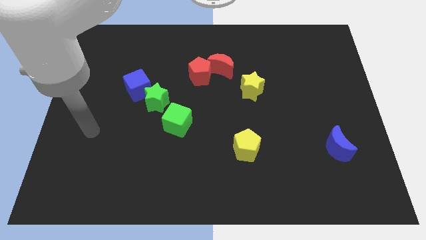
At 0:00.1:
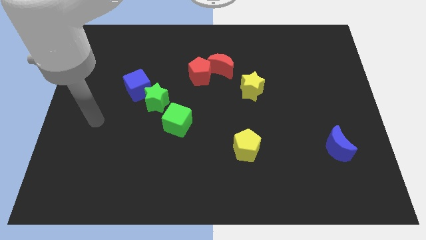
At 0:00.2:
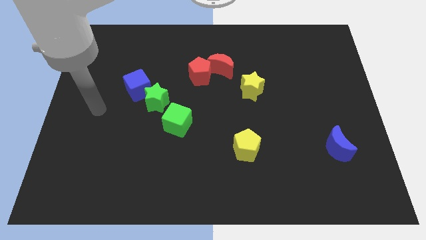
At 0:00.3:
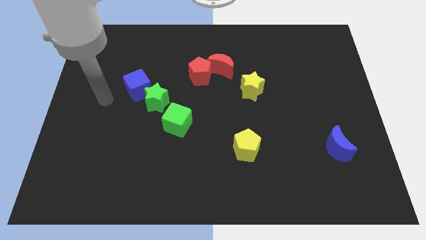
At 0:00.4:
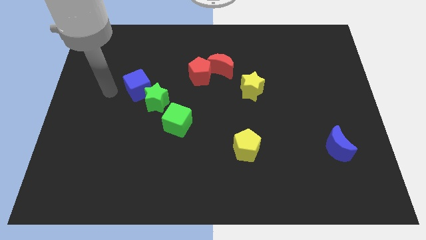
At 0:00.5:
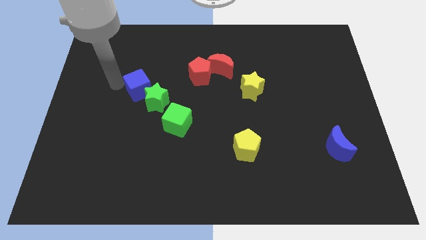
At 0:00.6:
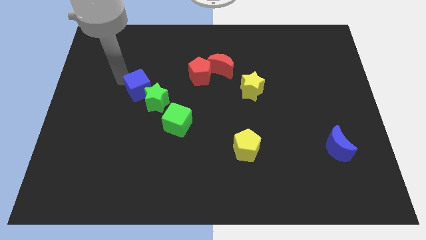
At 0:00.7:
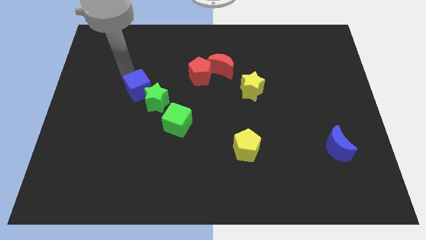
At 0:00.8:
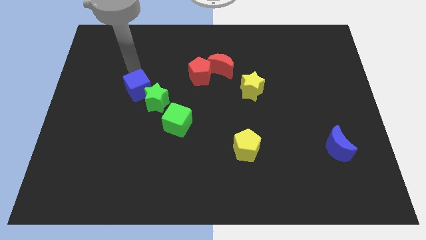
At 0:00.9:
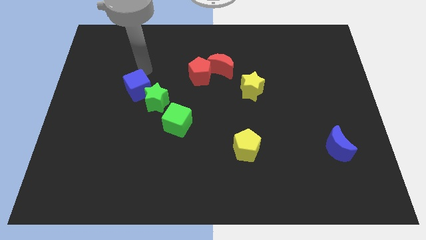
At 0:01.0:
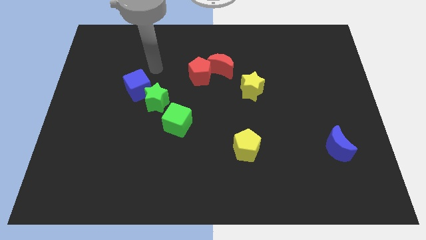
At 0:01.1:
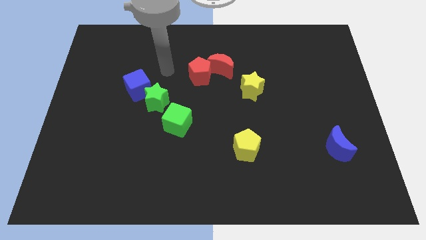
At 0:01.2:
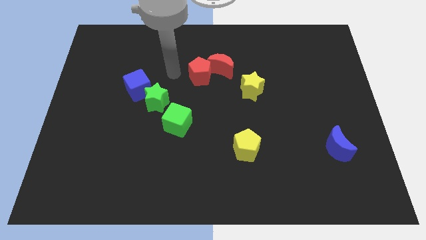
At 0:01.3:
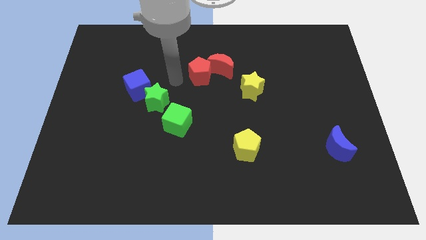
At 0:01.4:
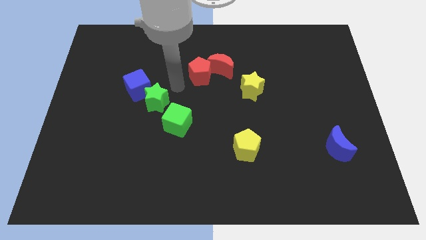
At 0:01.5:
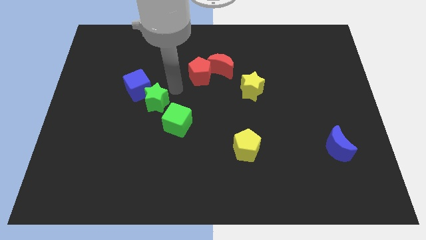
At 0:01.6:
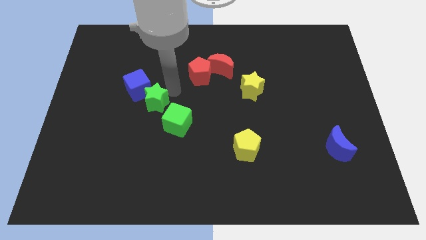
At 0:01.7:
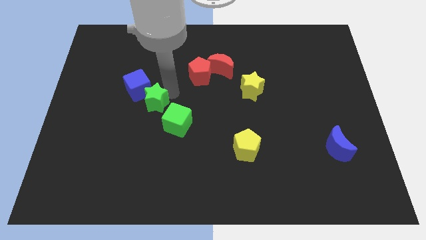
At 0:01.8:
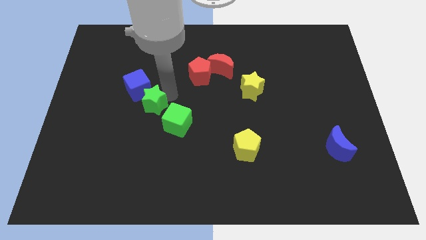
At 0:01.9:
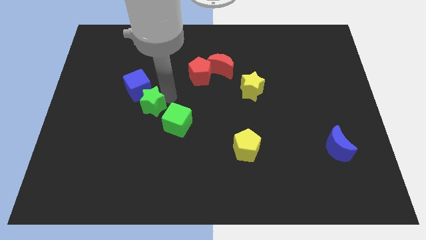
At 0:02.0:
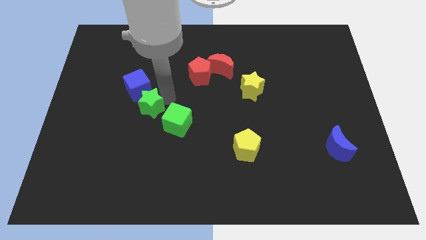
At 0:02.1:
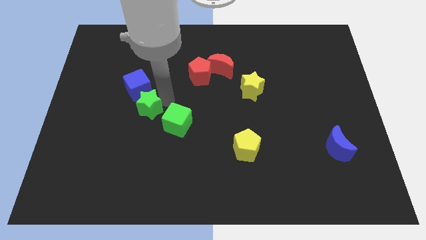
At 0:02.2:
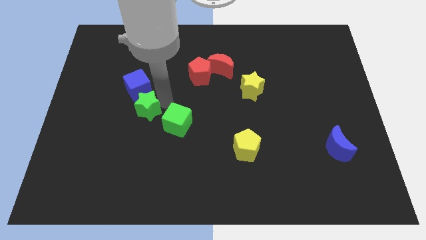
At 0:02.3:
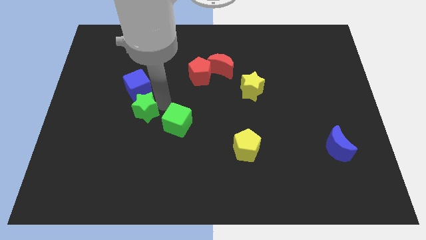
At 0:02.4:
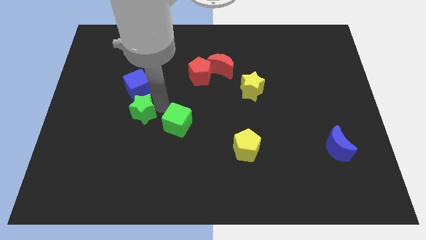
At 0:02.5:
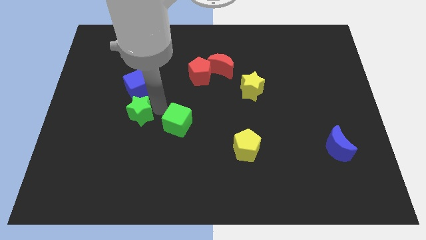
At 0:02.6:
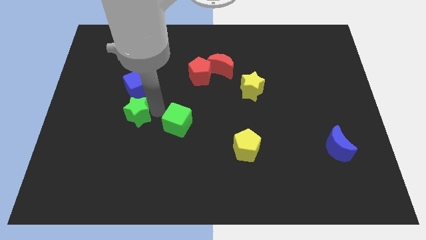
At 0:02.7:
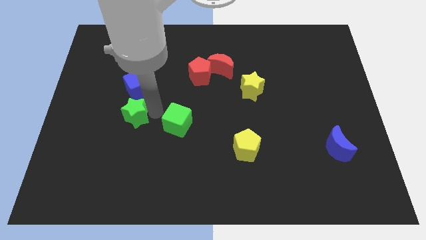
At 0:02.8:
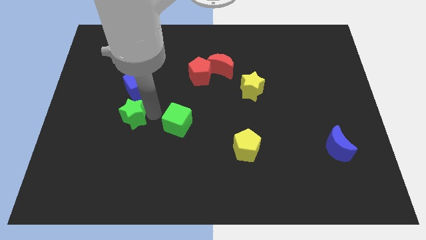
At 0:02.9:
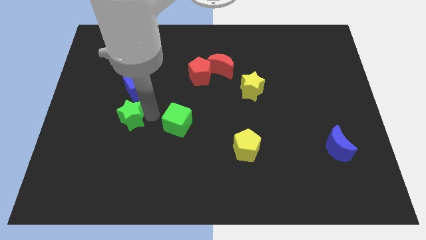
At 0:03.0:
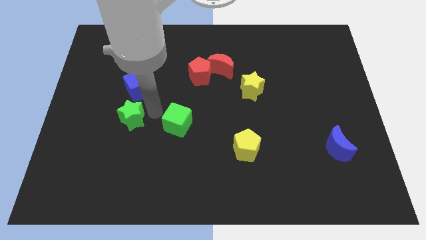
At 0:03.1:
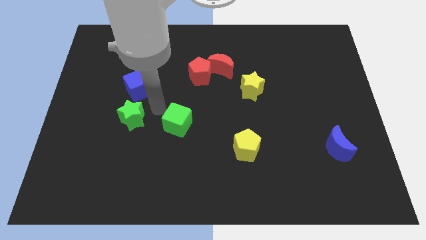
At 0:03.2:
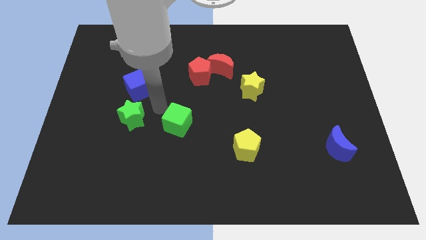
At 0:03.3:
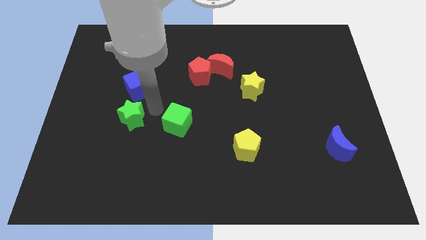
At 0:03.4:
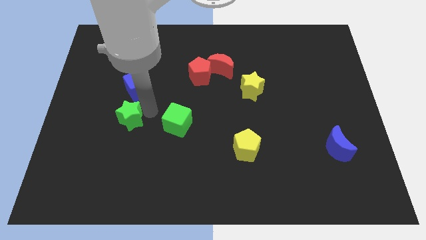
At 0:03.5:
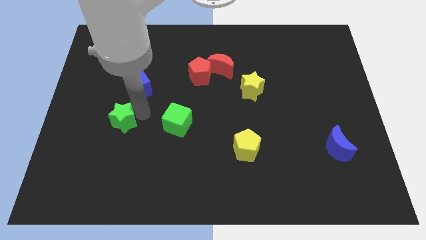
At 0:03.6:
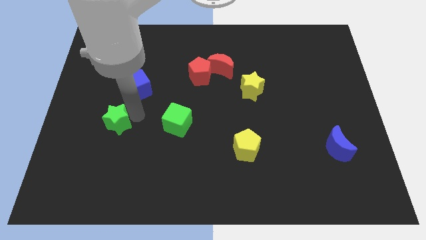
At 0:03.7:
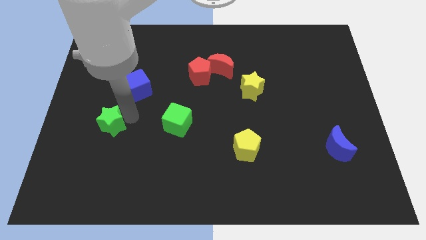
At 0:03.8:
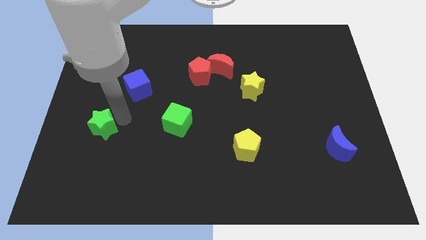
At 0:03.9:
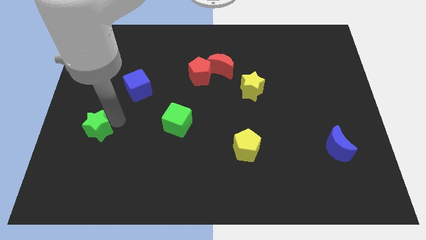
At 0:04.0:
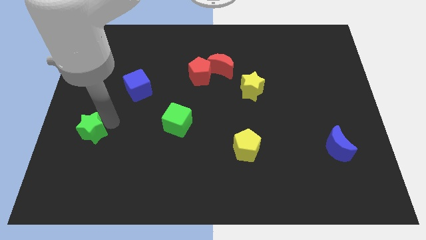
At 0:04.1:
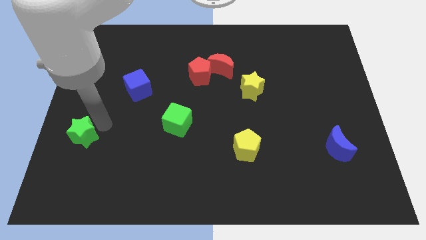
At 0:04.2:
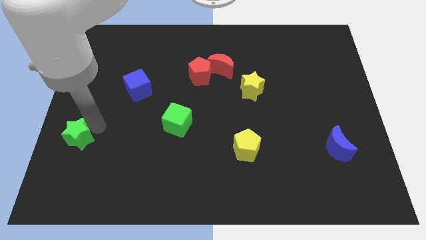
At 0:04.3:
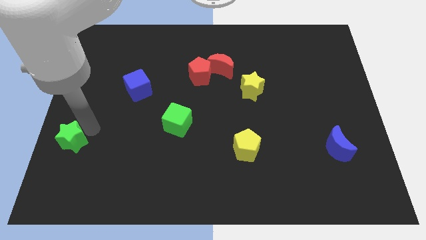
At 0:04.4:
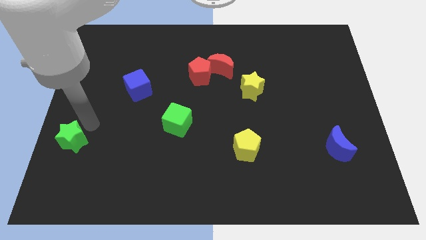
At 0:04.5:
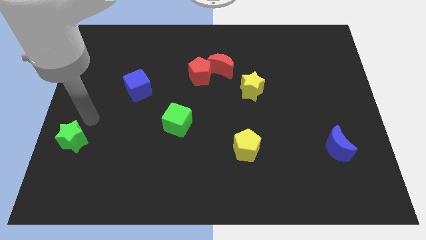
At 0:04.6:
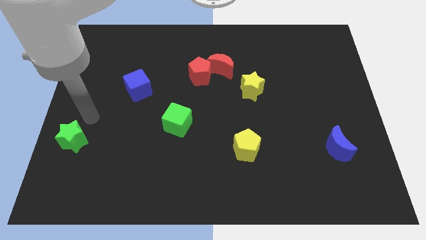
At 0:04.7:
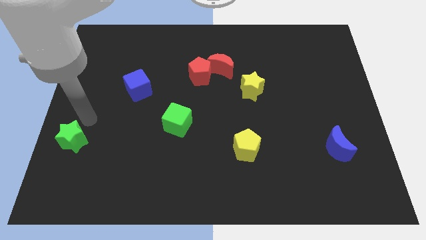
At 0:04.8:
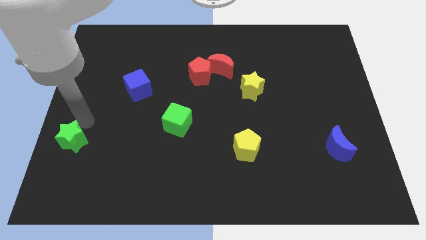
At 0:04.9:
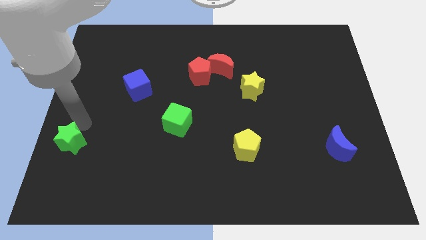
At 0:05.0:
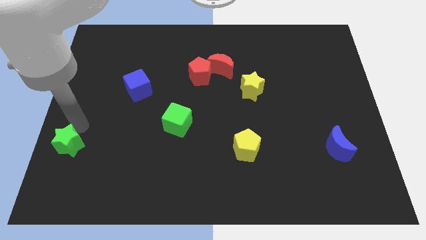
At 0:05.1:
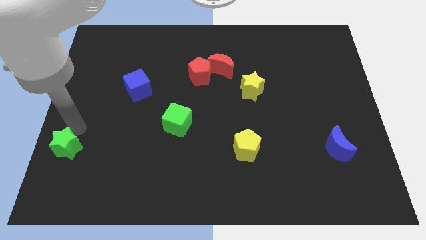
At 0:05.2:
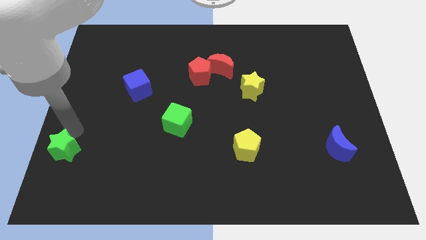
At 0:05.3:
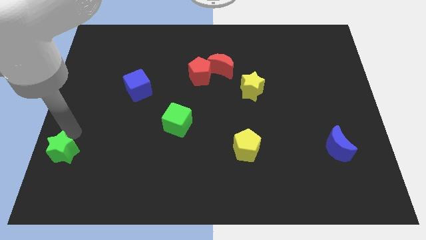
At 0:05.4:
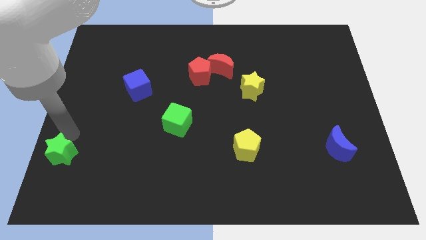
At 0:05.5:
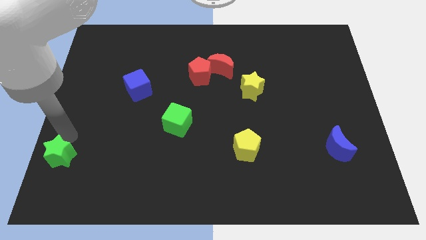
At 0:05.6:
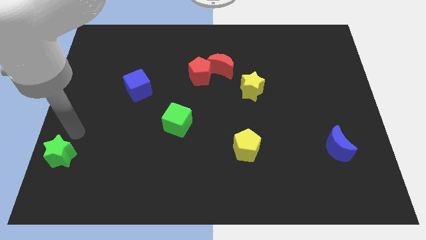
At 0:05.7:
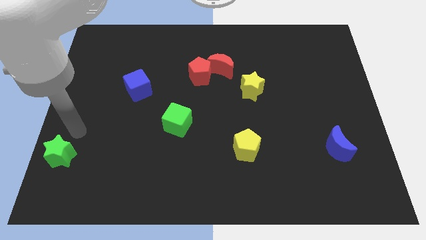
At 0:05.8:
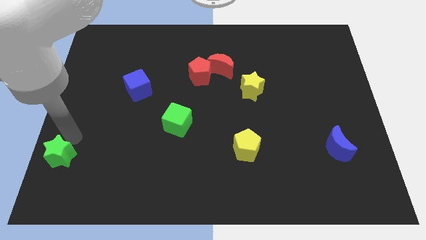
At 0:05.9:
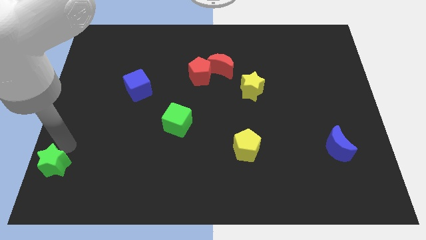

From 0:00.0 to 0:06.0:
move the green star to the bottom left corner
